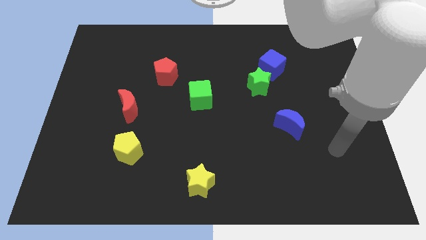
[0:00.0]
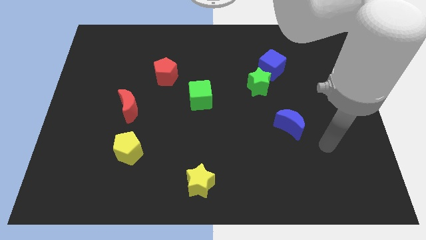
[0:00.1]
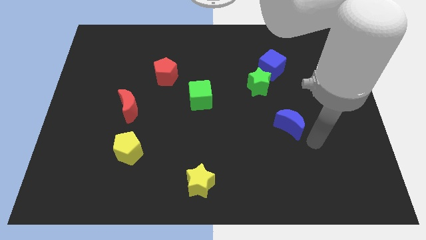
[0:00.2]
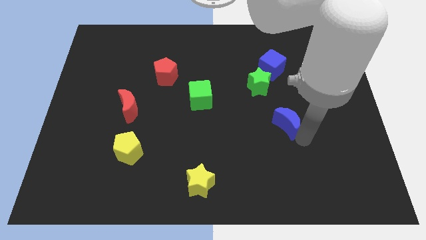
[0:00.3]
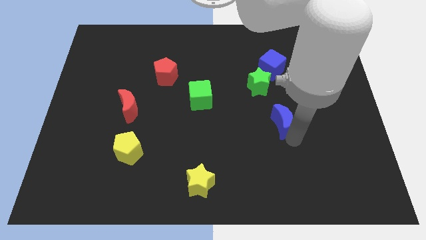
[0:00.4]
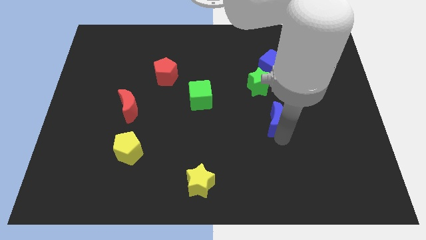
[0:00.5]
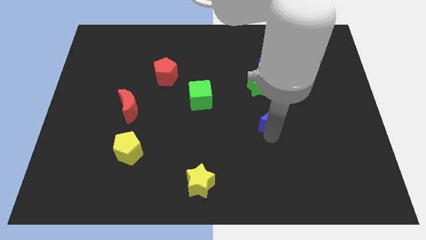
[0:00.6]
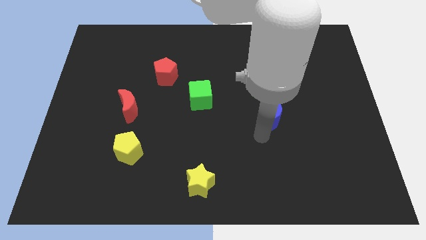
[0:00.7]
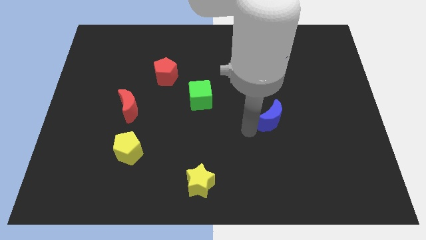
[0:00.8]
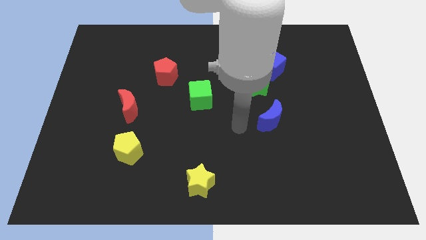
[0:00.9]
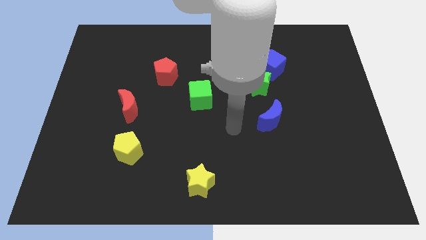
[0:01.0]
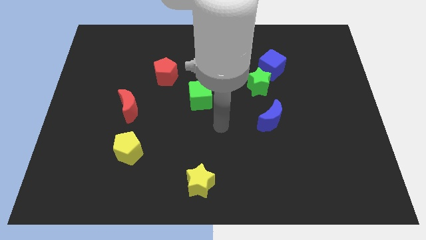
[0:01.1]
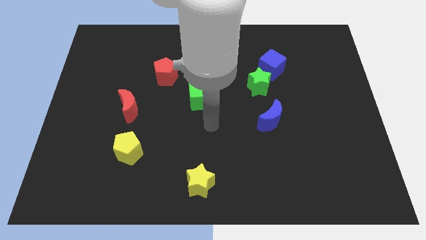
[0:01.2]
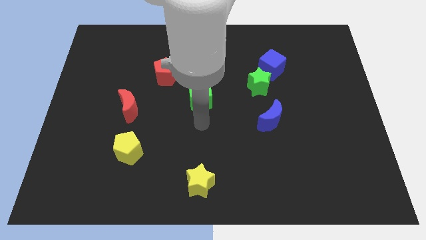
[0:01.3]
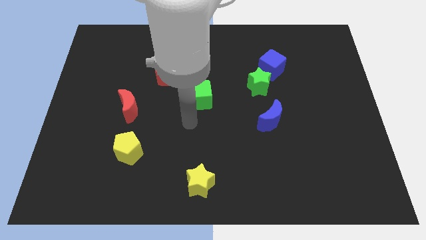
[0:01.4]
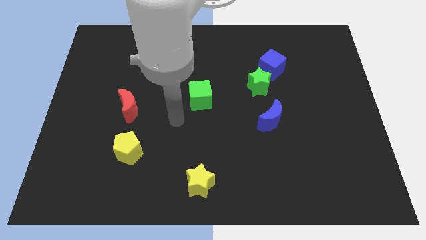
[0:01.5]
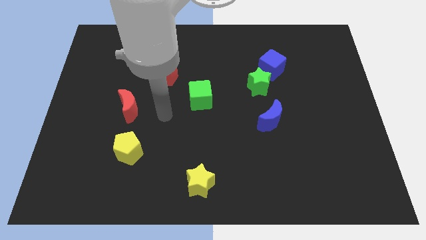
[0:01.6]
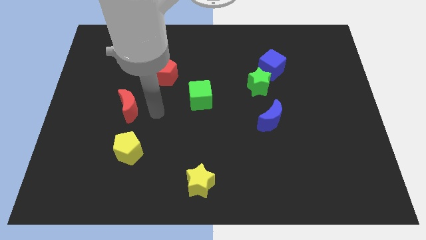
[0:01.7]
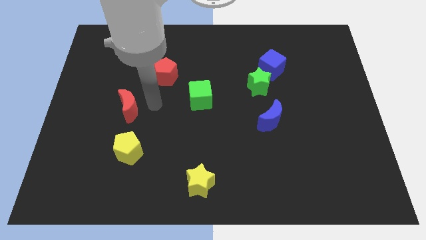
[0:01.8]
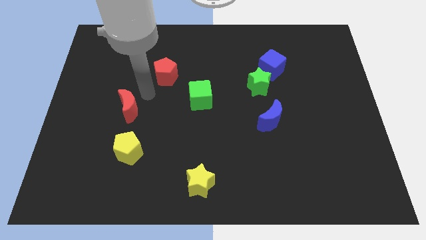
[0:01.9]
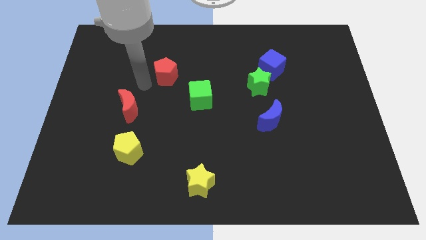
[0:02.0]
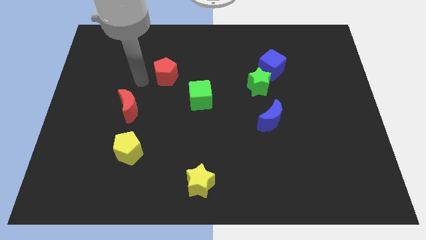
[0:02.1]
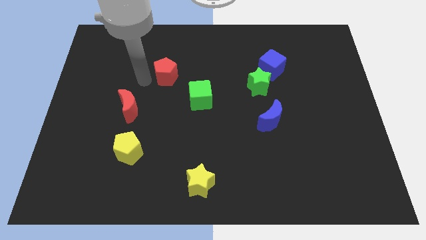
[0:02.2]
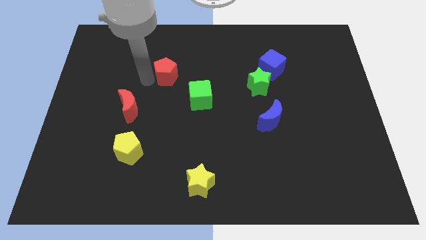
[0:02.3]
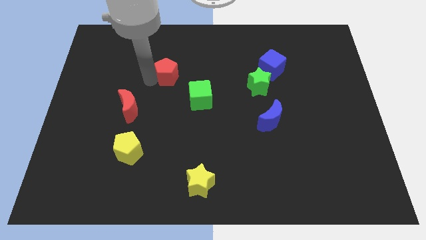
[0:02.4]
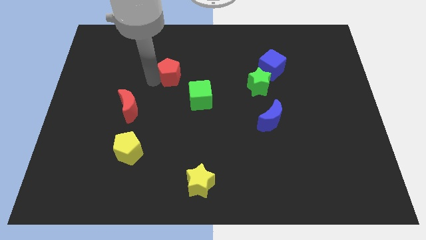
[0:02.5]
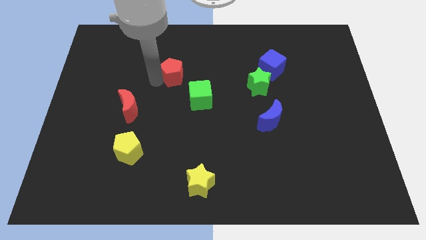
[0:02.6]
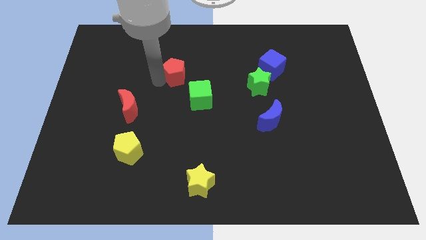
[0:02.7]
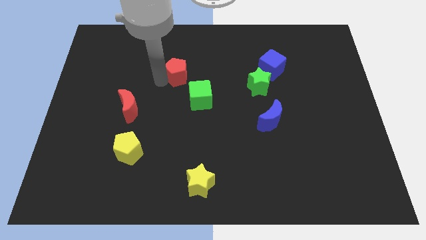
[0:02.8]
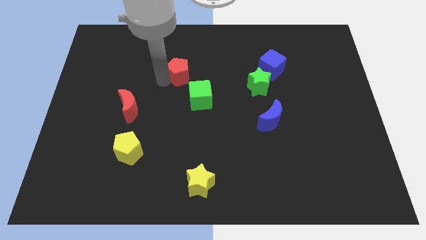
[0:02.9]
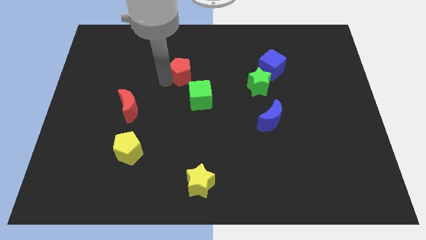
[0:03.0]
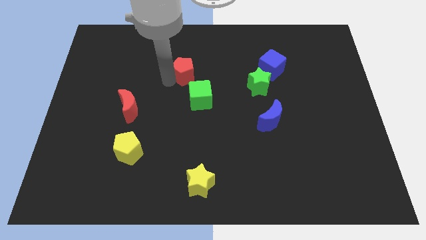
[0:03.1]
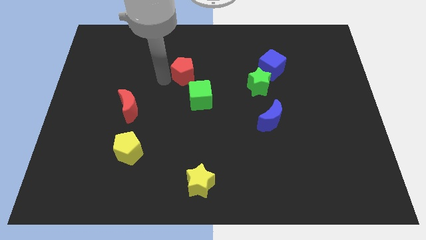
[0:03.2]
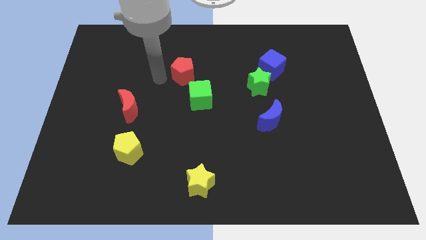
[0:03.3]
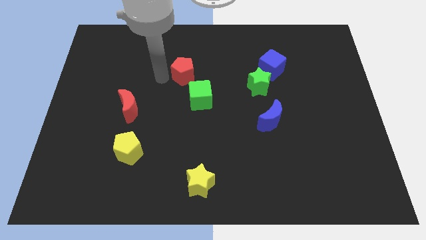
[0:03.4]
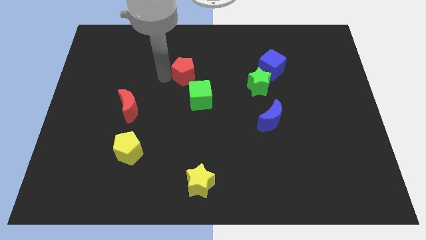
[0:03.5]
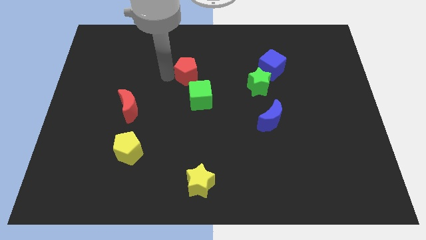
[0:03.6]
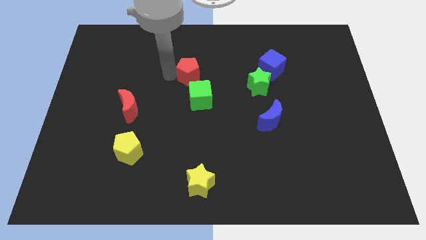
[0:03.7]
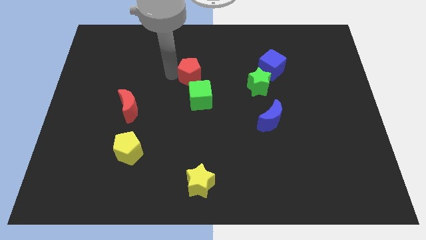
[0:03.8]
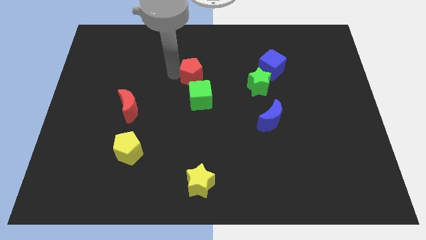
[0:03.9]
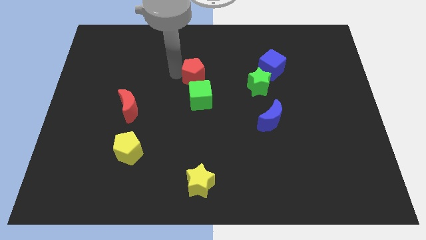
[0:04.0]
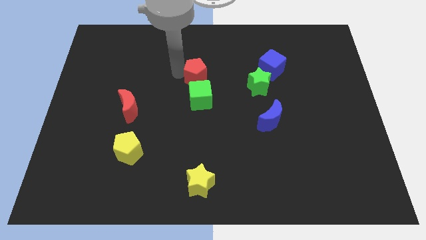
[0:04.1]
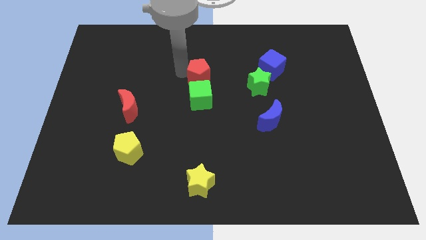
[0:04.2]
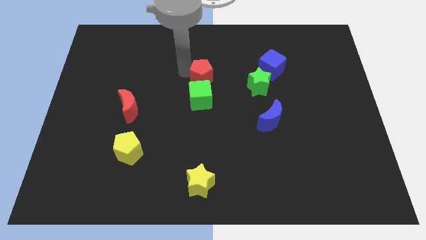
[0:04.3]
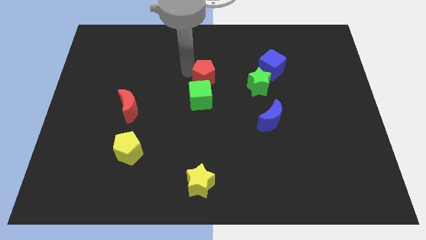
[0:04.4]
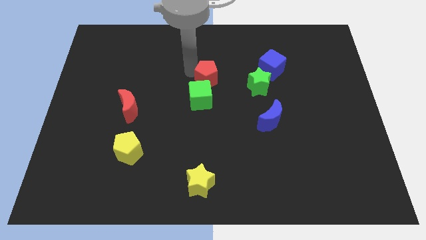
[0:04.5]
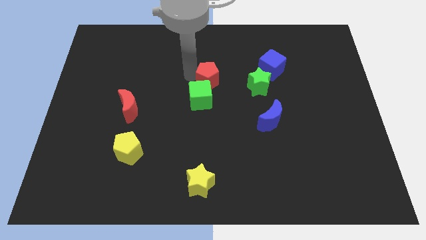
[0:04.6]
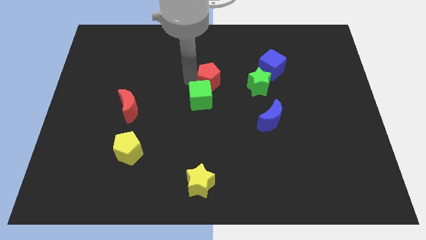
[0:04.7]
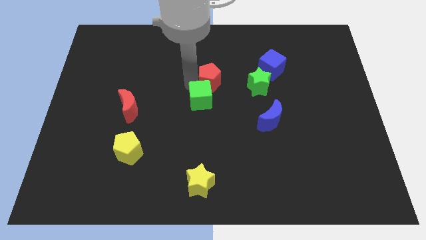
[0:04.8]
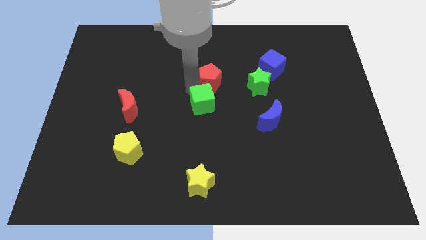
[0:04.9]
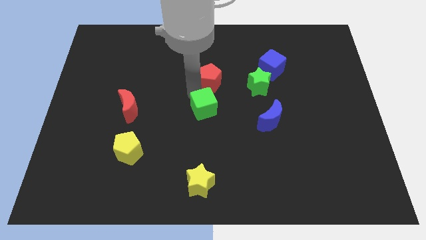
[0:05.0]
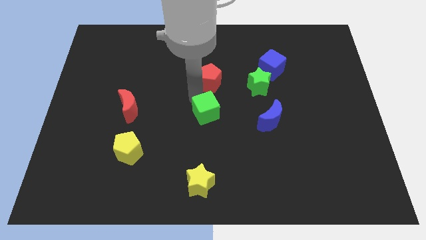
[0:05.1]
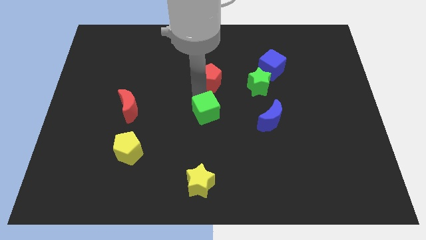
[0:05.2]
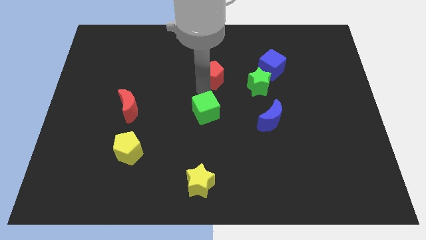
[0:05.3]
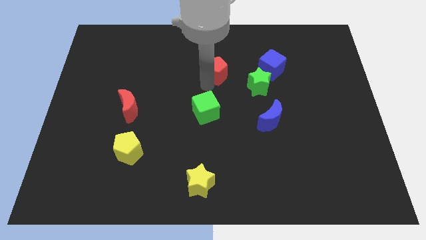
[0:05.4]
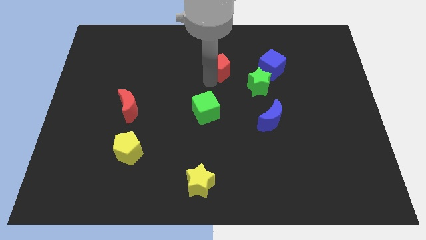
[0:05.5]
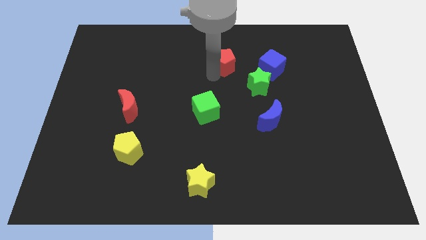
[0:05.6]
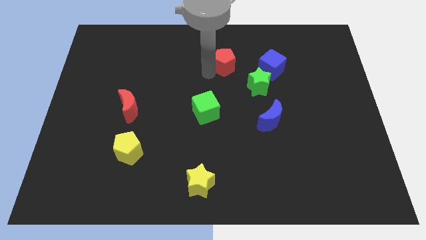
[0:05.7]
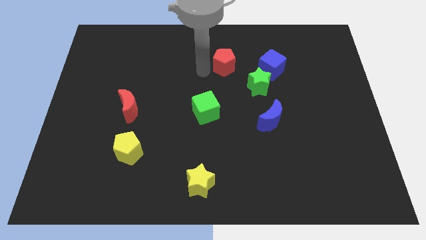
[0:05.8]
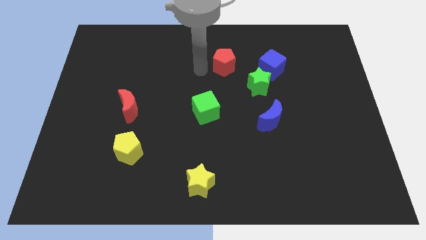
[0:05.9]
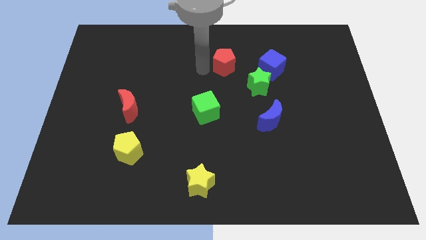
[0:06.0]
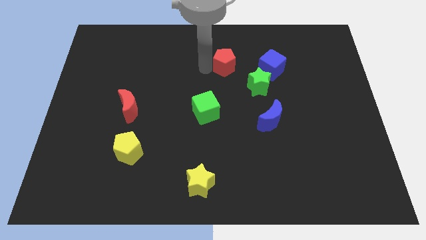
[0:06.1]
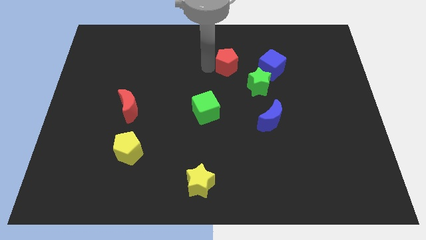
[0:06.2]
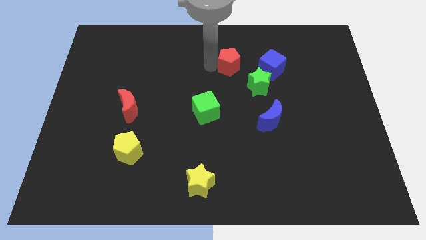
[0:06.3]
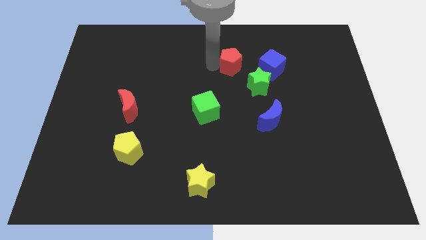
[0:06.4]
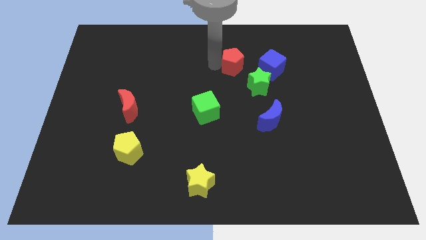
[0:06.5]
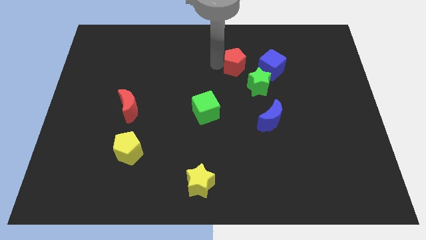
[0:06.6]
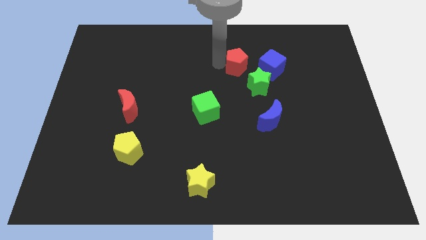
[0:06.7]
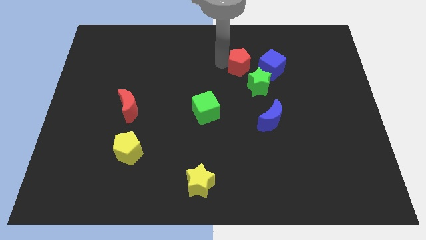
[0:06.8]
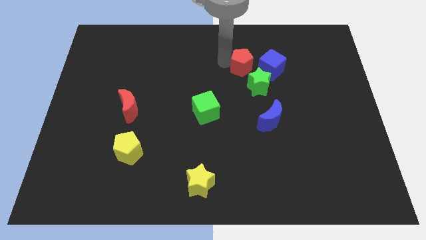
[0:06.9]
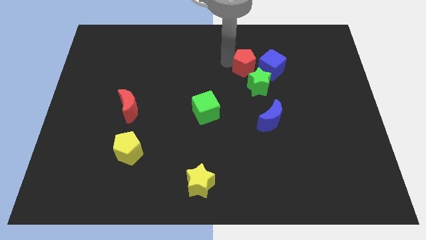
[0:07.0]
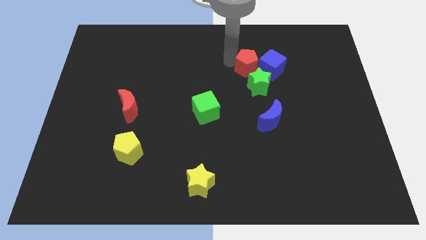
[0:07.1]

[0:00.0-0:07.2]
slide the red pentagon right

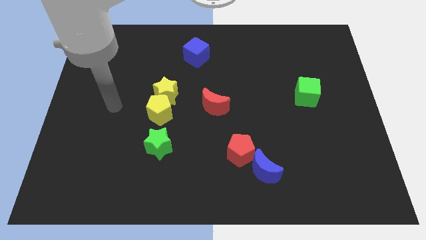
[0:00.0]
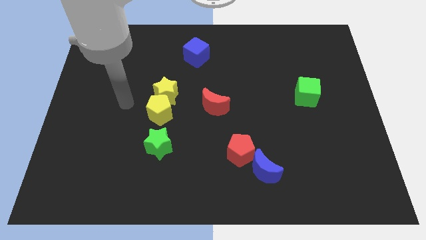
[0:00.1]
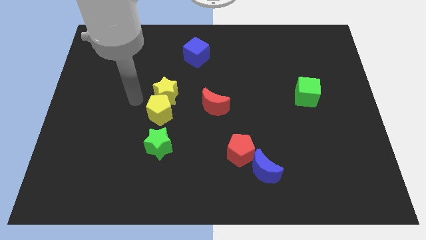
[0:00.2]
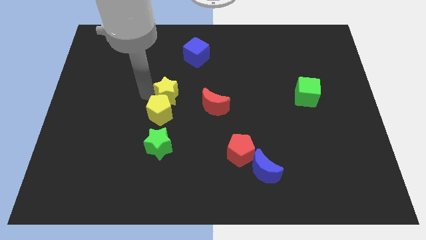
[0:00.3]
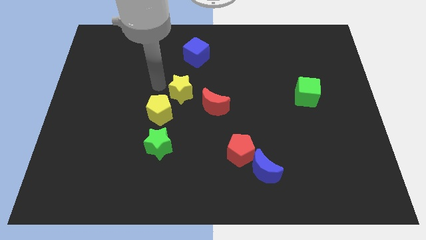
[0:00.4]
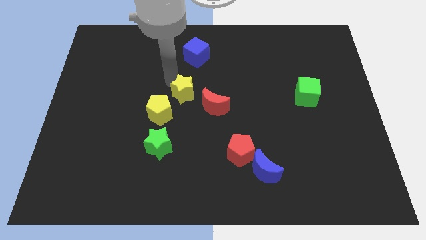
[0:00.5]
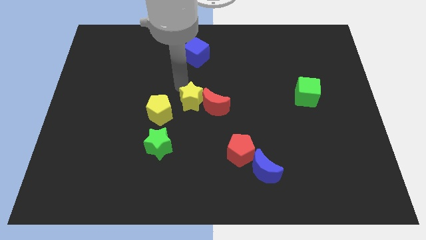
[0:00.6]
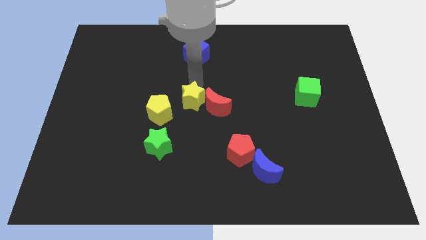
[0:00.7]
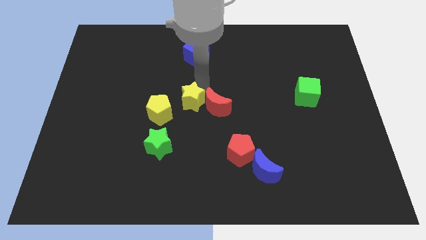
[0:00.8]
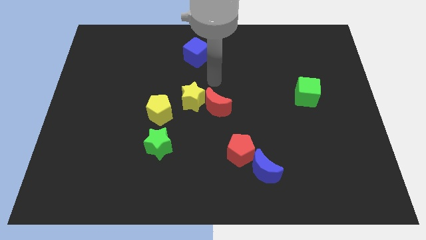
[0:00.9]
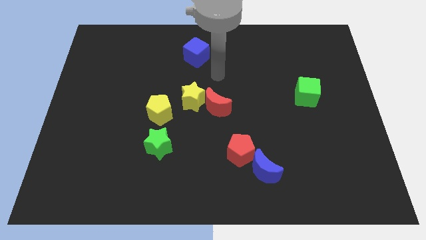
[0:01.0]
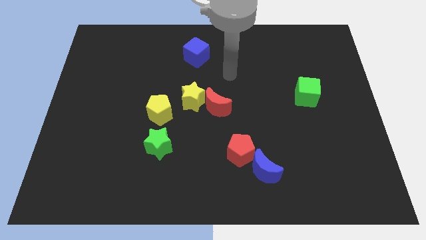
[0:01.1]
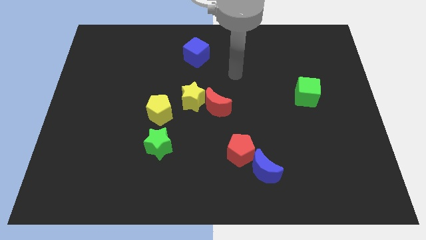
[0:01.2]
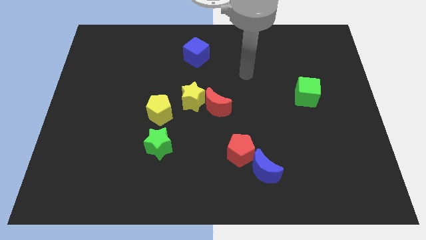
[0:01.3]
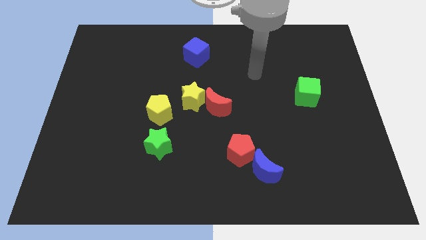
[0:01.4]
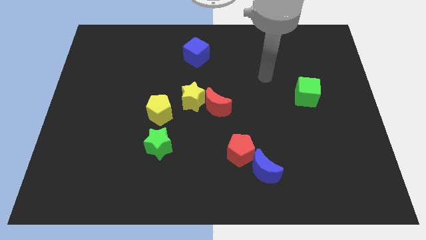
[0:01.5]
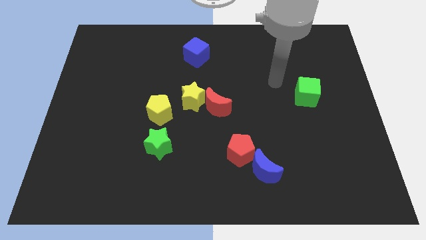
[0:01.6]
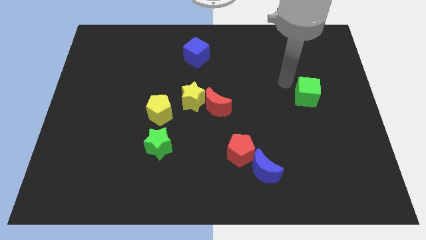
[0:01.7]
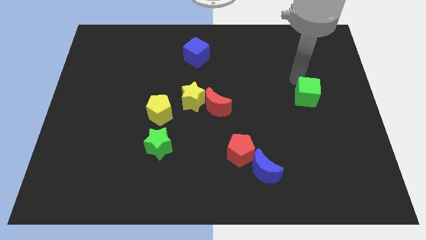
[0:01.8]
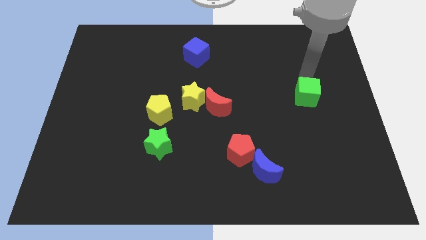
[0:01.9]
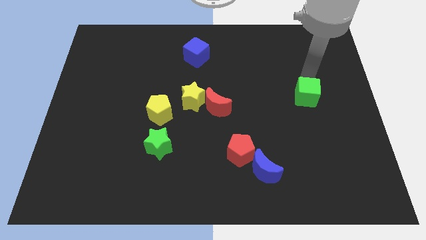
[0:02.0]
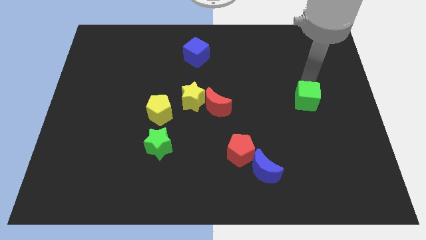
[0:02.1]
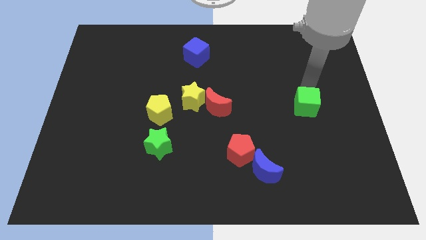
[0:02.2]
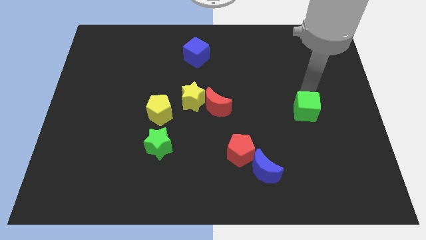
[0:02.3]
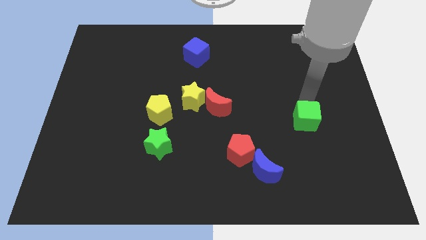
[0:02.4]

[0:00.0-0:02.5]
slide the green cube downwards a bit
